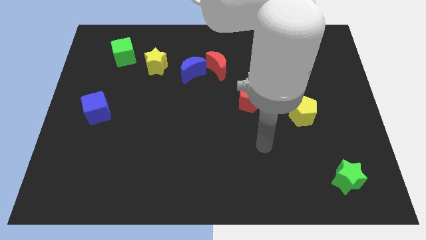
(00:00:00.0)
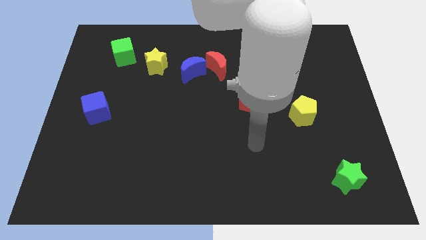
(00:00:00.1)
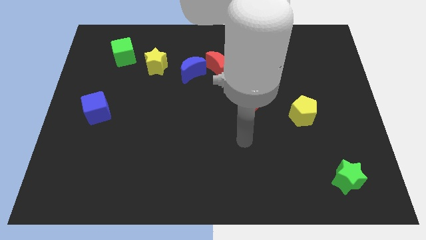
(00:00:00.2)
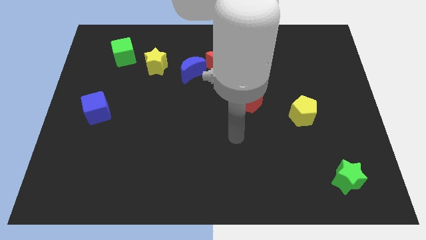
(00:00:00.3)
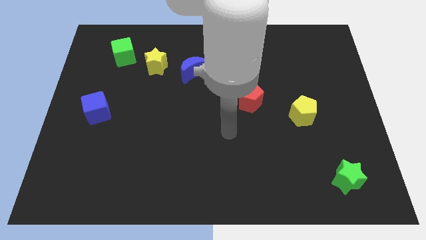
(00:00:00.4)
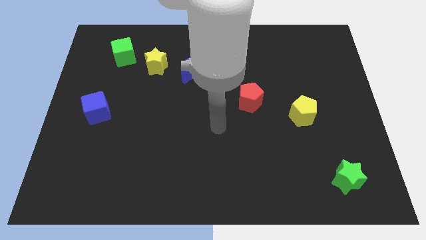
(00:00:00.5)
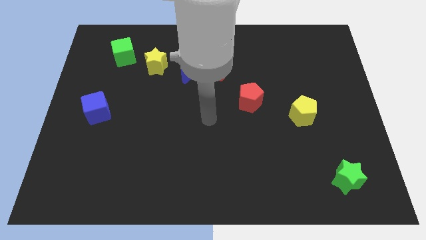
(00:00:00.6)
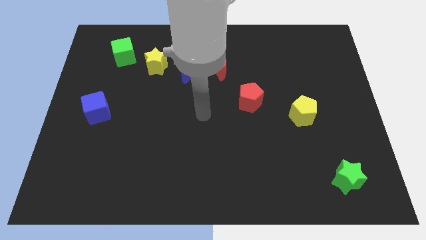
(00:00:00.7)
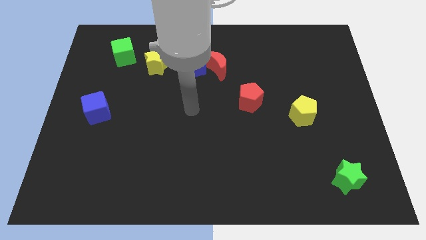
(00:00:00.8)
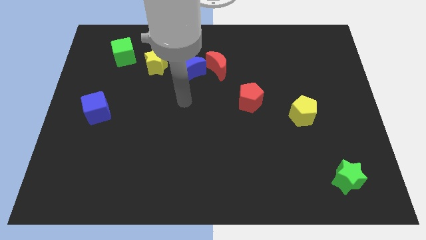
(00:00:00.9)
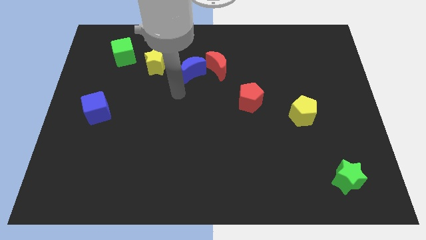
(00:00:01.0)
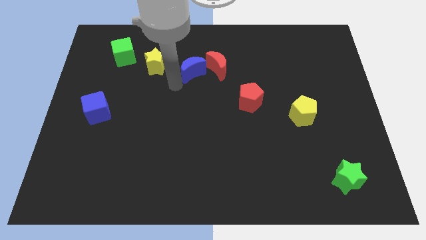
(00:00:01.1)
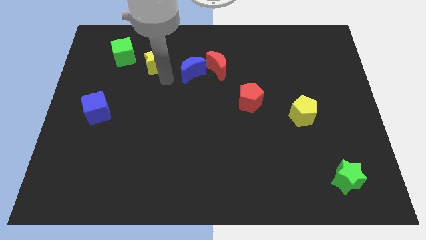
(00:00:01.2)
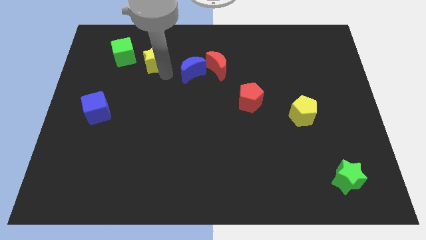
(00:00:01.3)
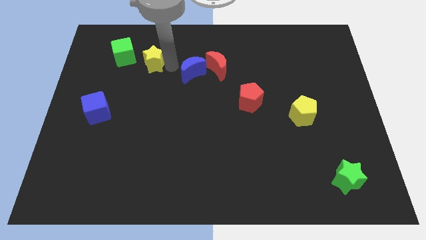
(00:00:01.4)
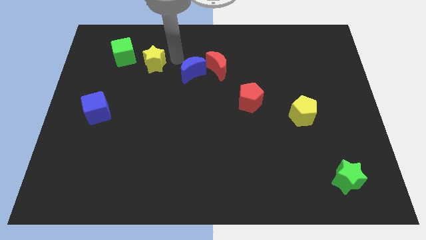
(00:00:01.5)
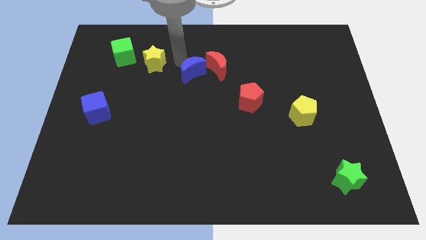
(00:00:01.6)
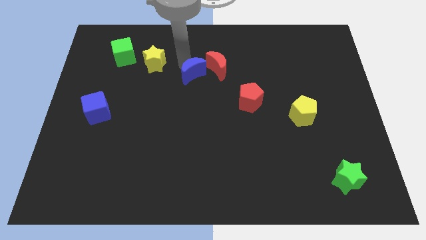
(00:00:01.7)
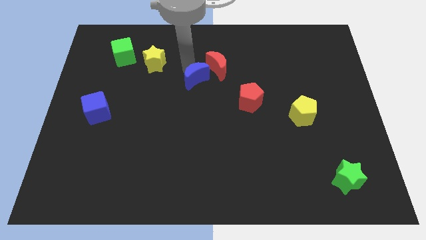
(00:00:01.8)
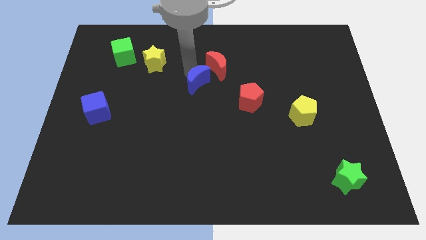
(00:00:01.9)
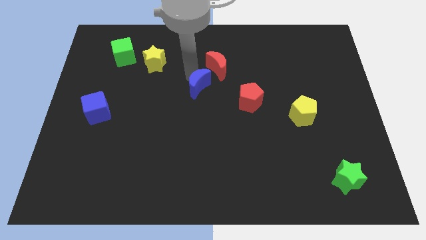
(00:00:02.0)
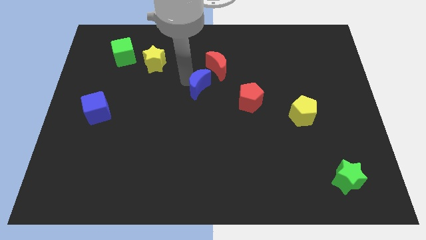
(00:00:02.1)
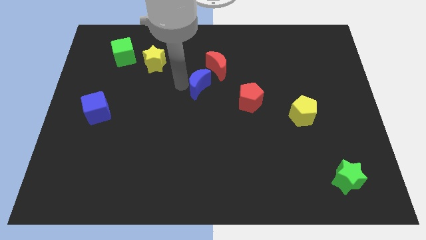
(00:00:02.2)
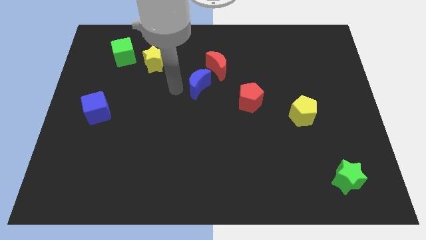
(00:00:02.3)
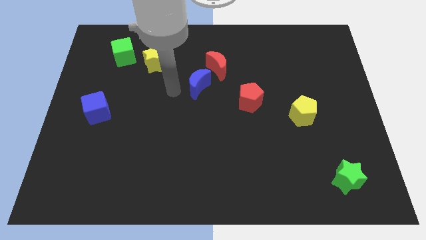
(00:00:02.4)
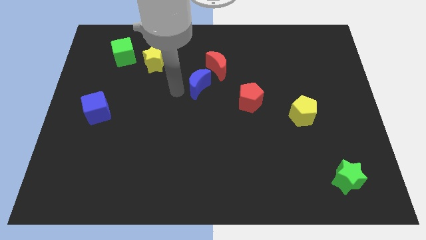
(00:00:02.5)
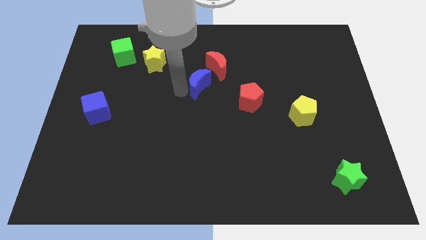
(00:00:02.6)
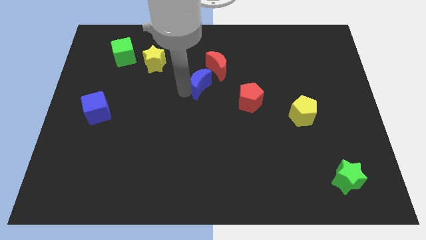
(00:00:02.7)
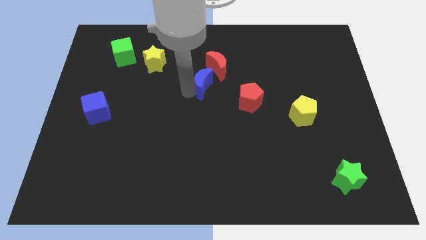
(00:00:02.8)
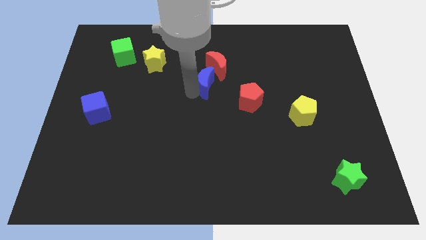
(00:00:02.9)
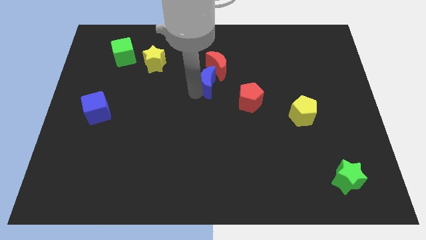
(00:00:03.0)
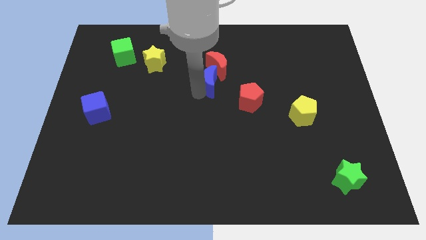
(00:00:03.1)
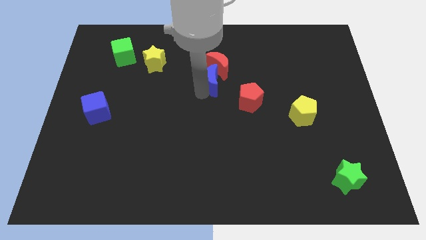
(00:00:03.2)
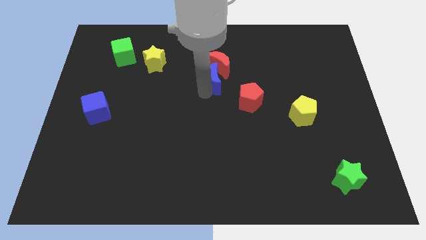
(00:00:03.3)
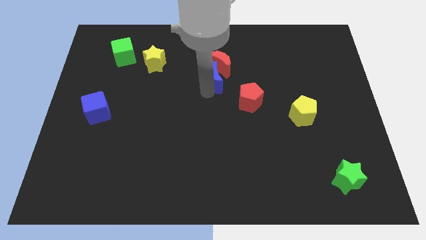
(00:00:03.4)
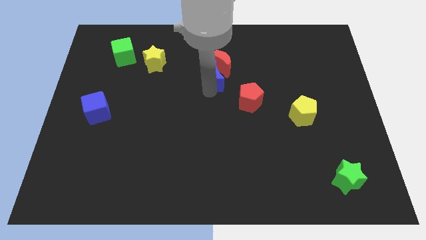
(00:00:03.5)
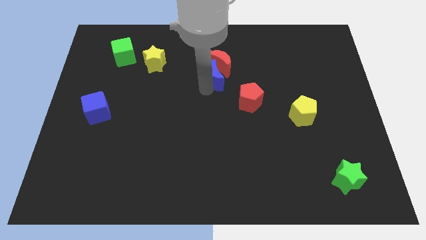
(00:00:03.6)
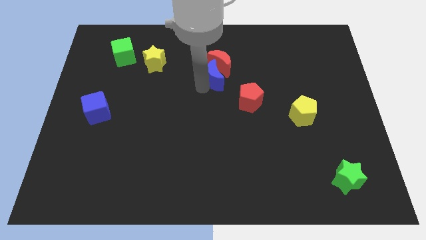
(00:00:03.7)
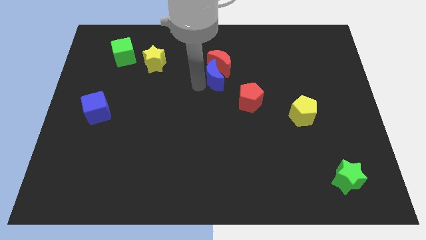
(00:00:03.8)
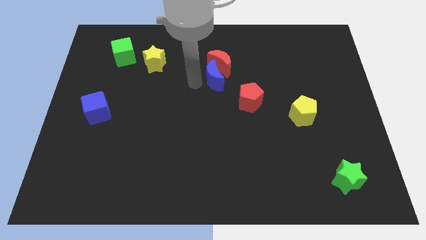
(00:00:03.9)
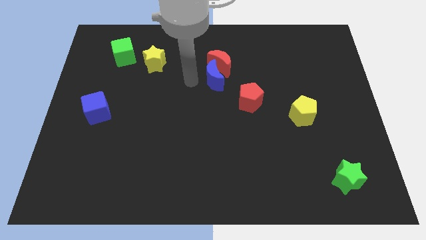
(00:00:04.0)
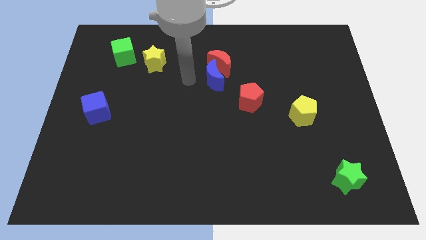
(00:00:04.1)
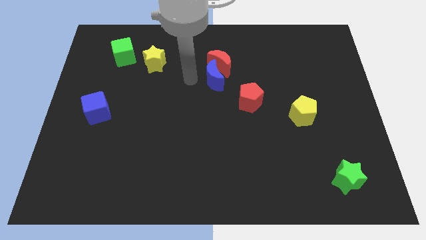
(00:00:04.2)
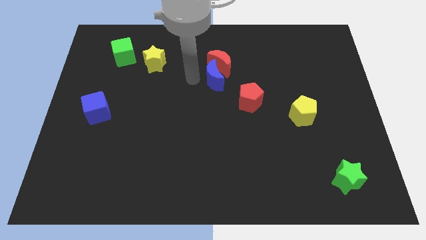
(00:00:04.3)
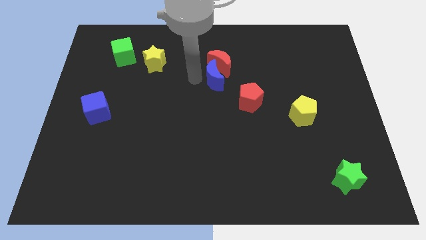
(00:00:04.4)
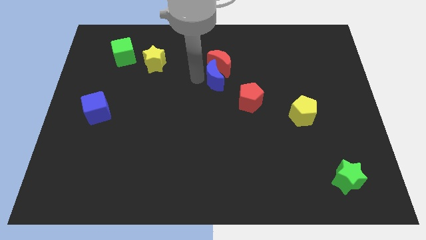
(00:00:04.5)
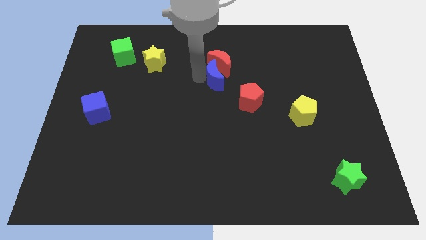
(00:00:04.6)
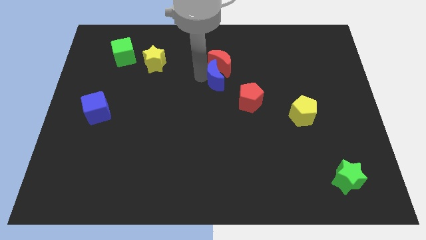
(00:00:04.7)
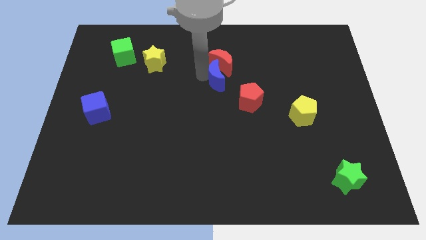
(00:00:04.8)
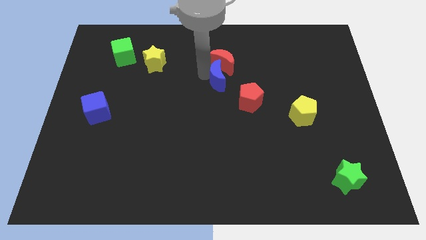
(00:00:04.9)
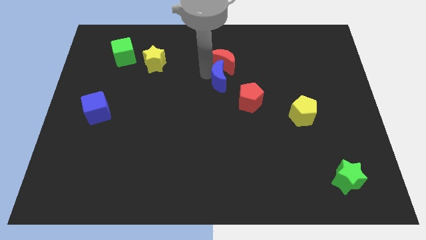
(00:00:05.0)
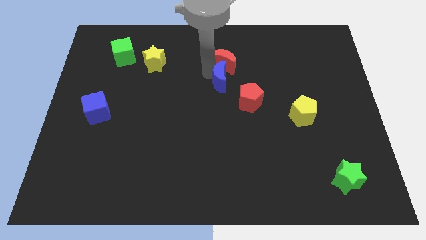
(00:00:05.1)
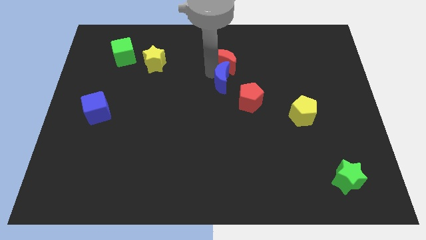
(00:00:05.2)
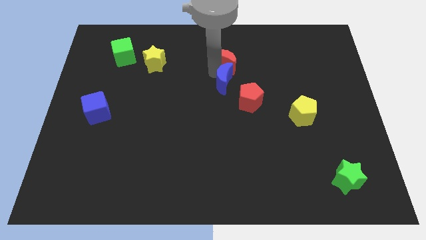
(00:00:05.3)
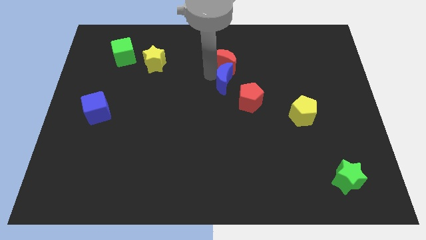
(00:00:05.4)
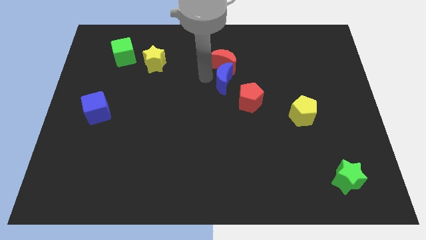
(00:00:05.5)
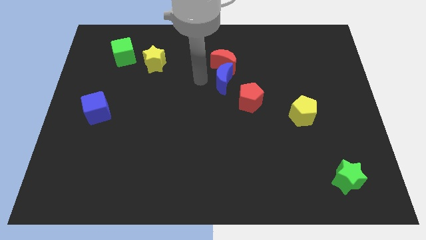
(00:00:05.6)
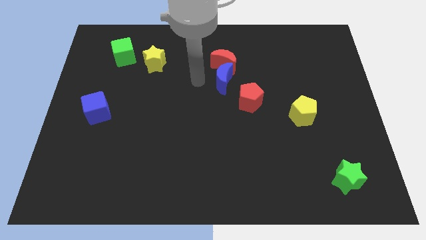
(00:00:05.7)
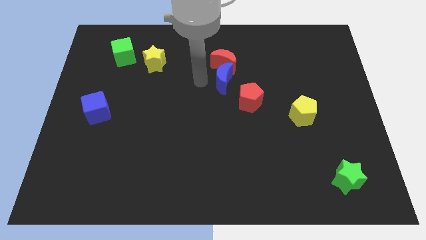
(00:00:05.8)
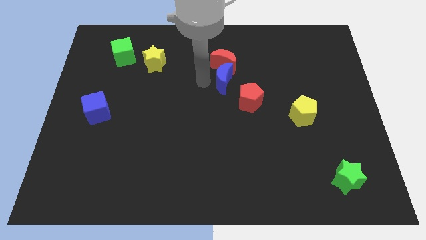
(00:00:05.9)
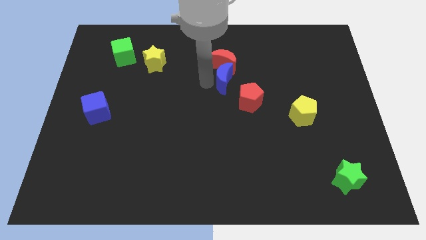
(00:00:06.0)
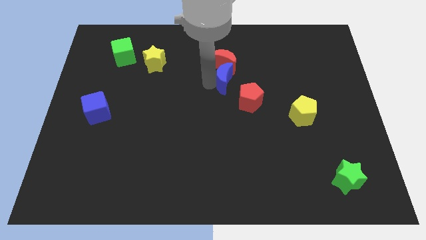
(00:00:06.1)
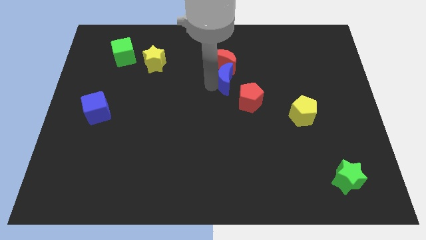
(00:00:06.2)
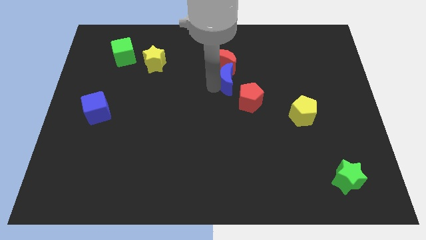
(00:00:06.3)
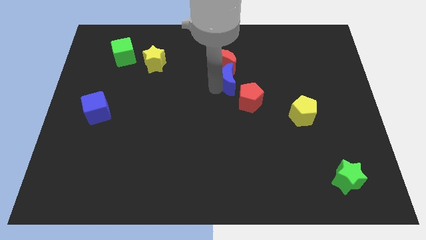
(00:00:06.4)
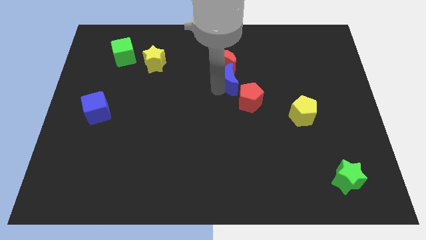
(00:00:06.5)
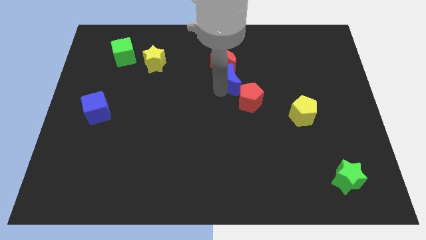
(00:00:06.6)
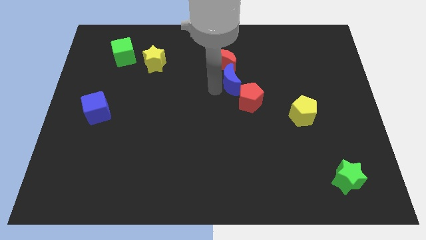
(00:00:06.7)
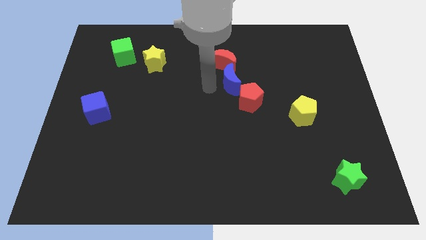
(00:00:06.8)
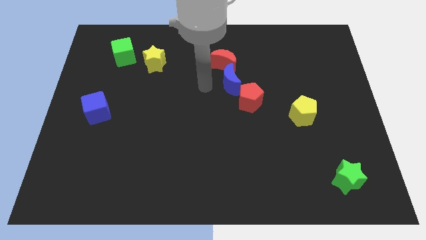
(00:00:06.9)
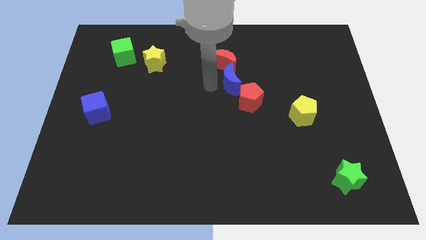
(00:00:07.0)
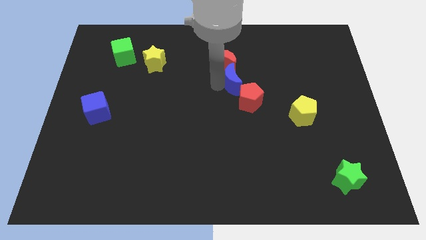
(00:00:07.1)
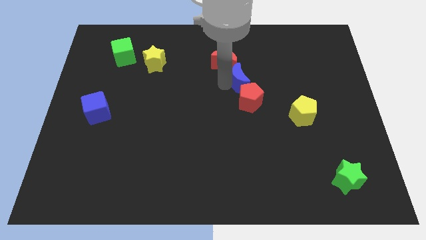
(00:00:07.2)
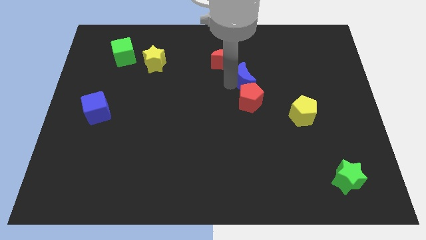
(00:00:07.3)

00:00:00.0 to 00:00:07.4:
move the blue moon to the top right of the red pentagon
